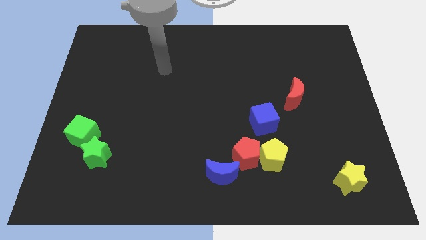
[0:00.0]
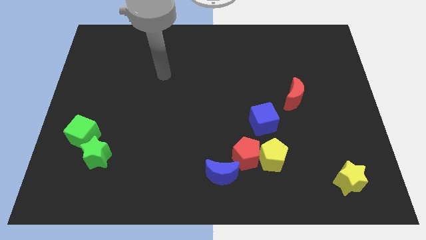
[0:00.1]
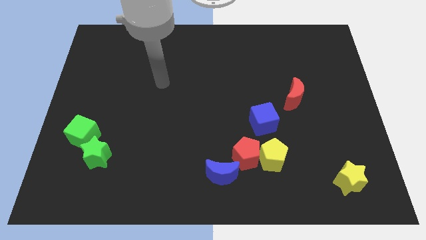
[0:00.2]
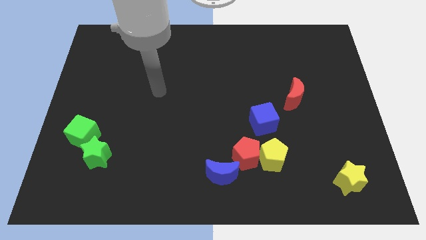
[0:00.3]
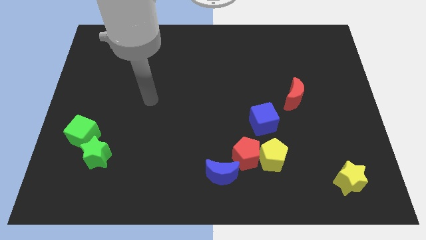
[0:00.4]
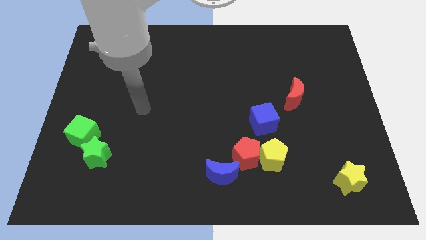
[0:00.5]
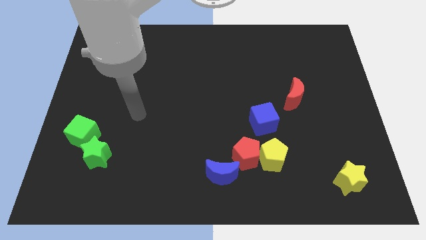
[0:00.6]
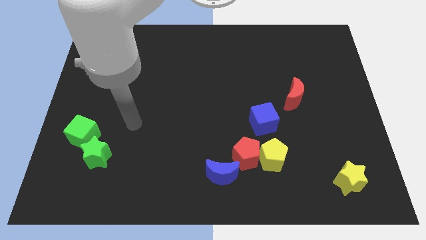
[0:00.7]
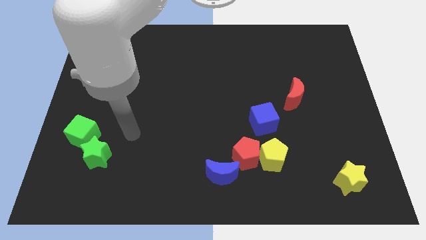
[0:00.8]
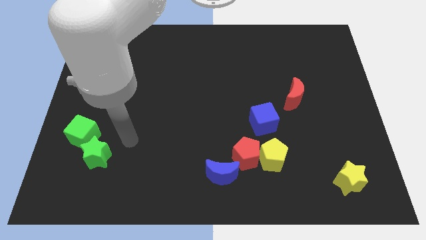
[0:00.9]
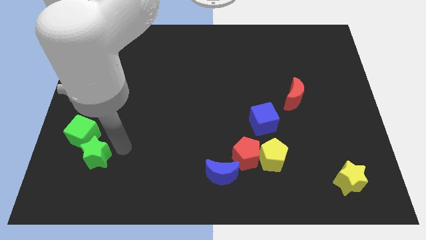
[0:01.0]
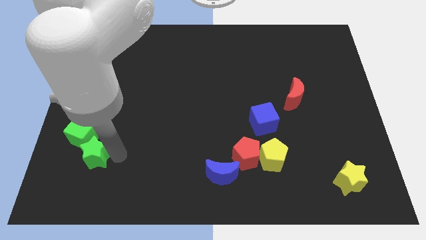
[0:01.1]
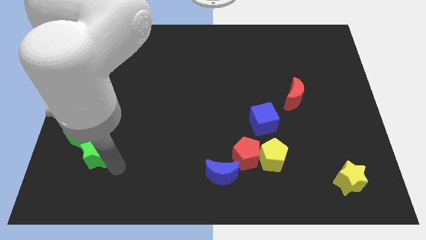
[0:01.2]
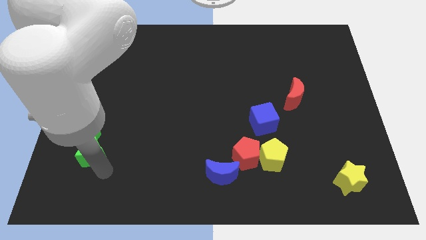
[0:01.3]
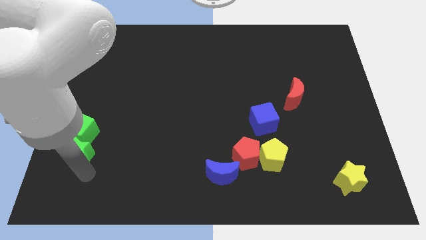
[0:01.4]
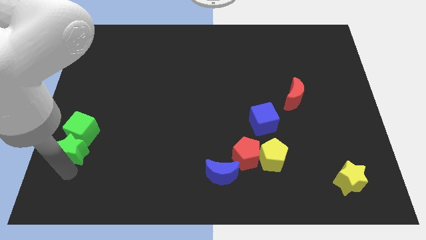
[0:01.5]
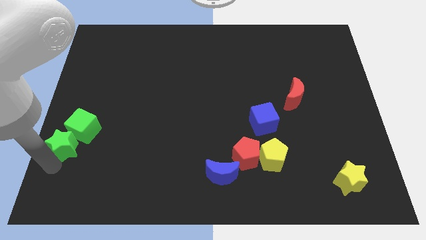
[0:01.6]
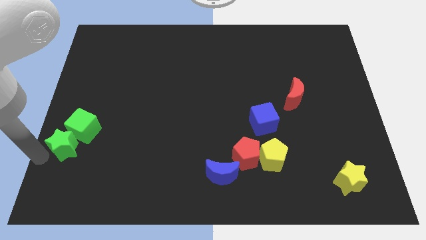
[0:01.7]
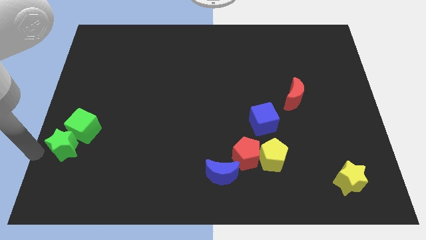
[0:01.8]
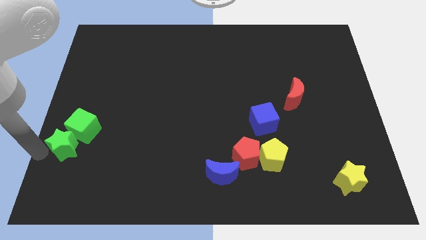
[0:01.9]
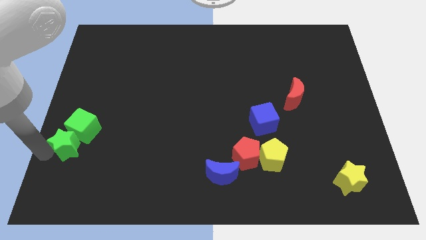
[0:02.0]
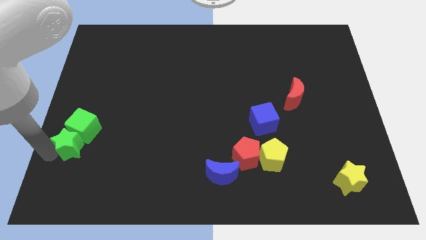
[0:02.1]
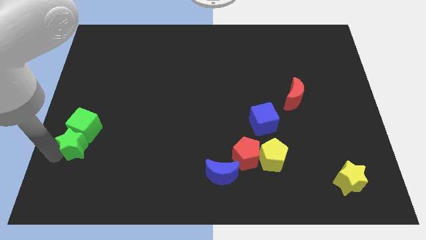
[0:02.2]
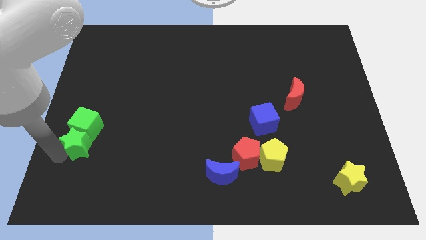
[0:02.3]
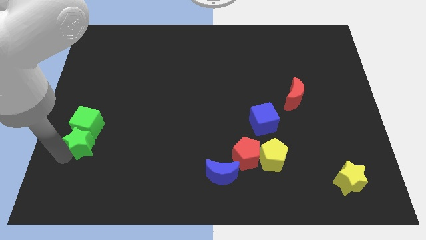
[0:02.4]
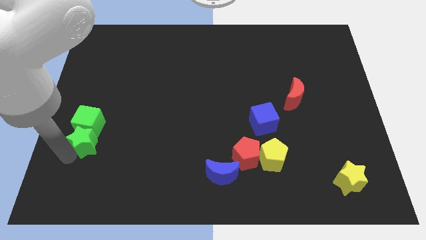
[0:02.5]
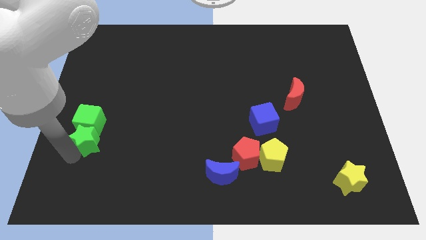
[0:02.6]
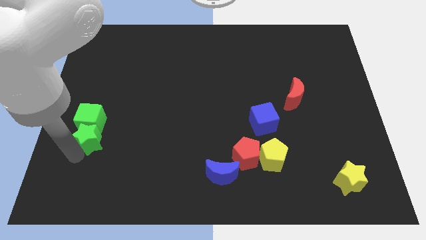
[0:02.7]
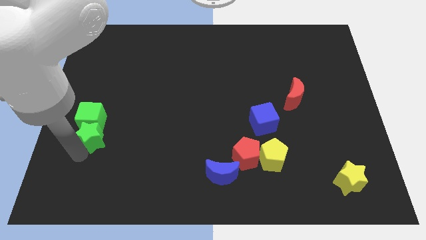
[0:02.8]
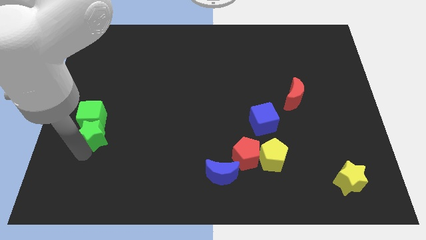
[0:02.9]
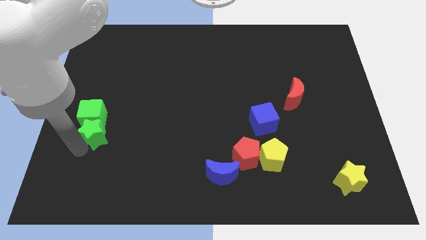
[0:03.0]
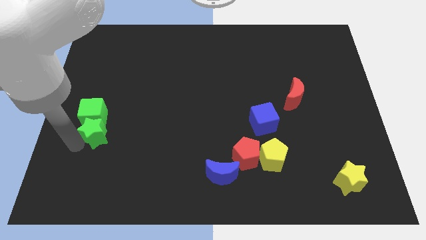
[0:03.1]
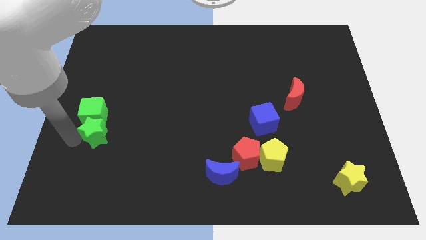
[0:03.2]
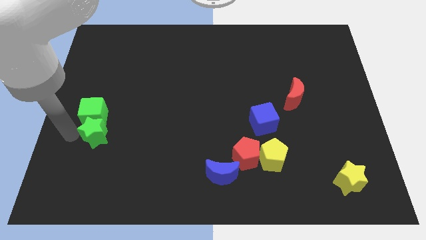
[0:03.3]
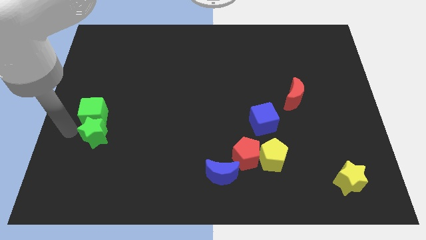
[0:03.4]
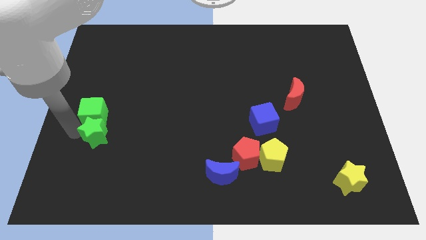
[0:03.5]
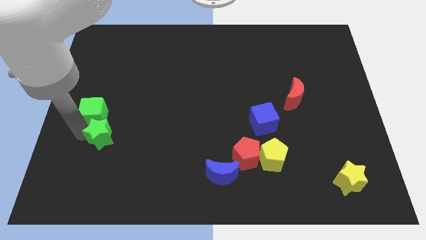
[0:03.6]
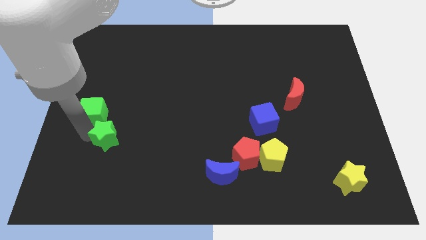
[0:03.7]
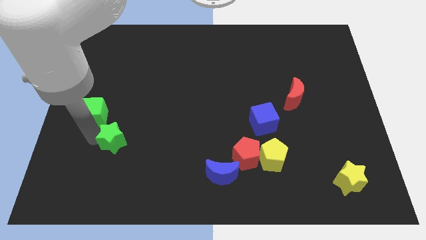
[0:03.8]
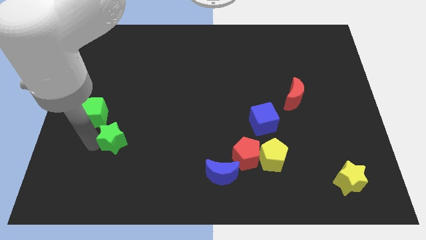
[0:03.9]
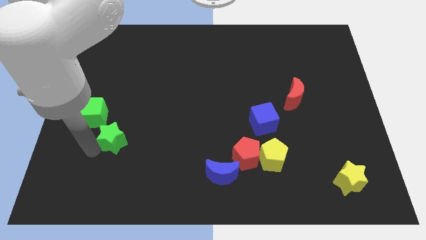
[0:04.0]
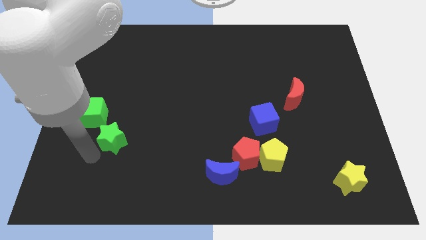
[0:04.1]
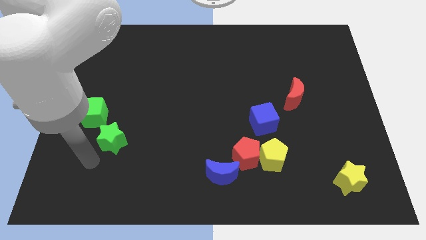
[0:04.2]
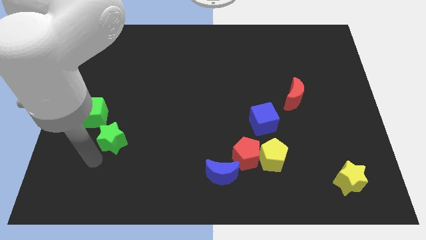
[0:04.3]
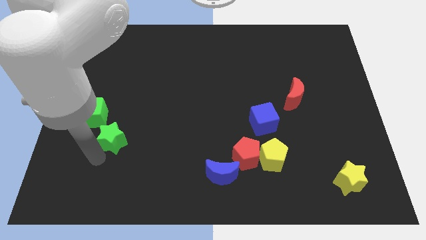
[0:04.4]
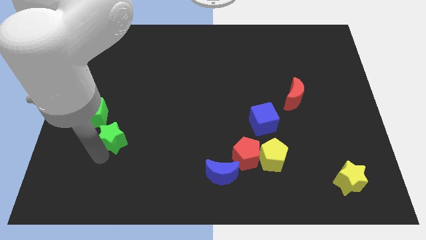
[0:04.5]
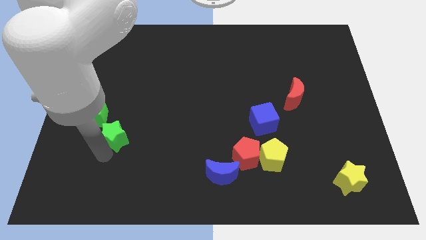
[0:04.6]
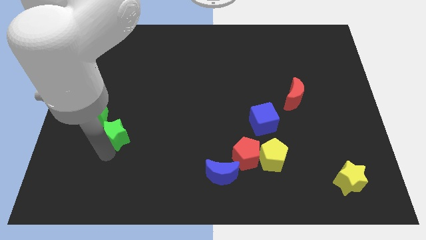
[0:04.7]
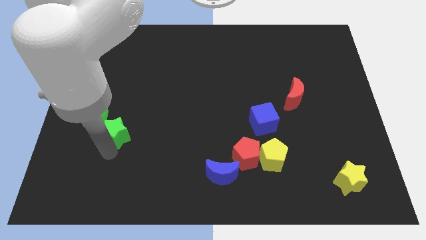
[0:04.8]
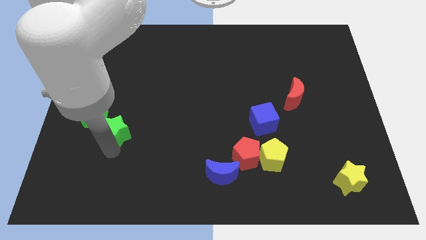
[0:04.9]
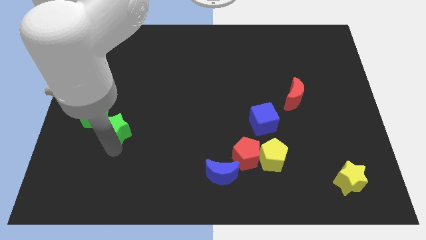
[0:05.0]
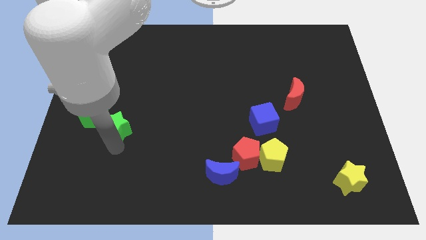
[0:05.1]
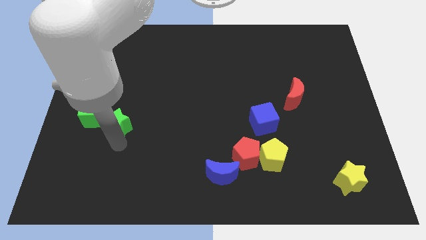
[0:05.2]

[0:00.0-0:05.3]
move the green star slightly upwards and right diagonally

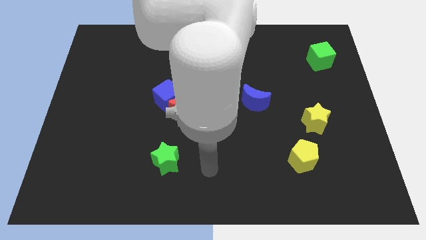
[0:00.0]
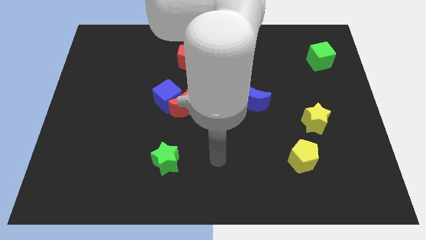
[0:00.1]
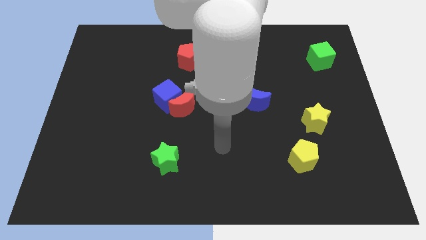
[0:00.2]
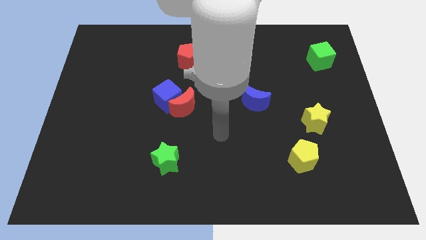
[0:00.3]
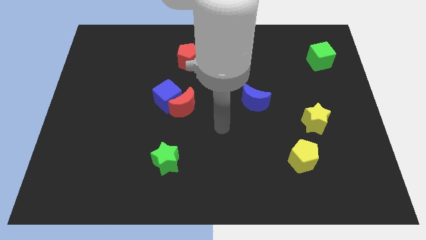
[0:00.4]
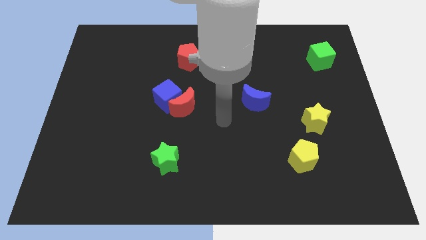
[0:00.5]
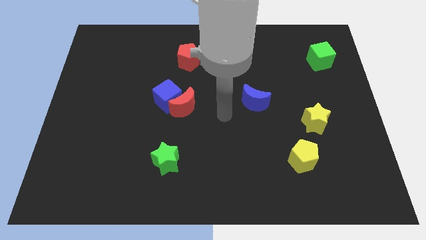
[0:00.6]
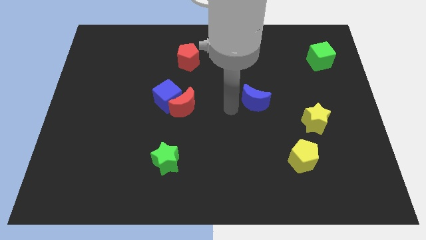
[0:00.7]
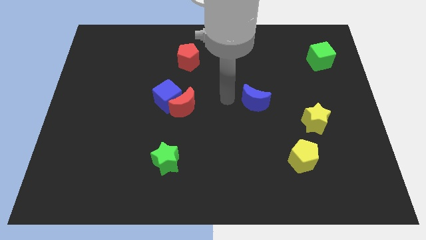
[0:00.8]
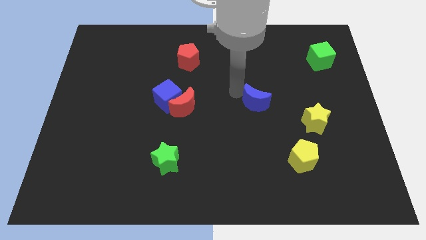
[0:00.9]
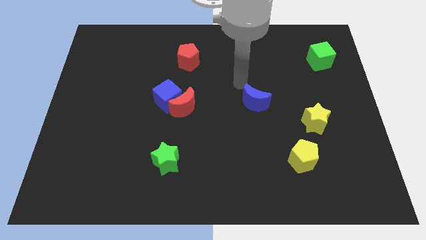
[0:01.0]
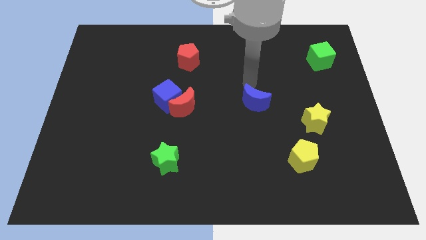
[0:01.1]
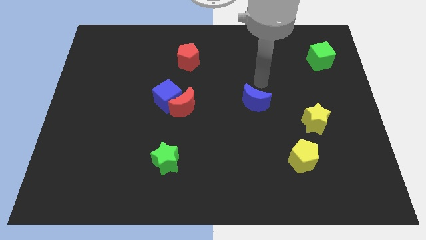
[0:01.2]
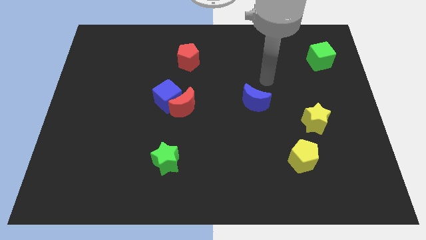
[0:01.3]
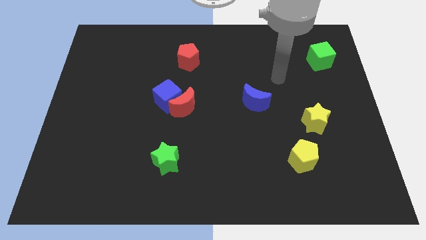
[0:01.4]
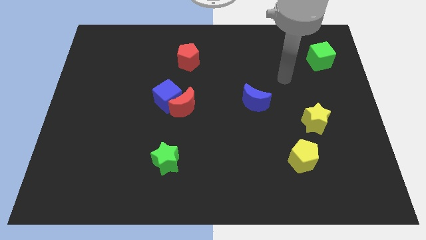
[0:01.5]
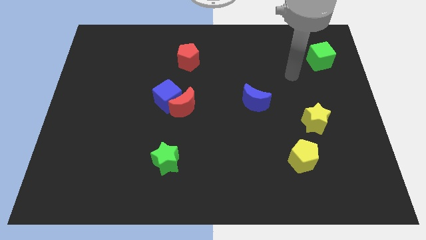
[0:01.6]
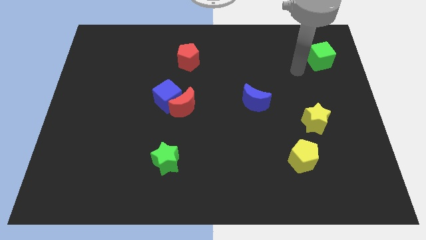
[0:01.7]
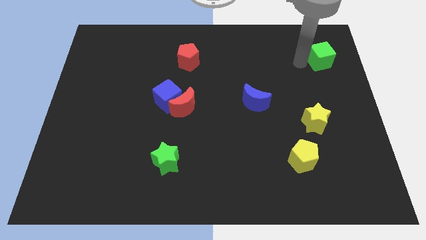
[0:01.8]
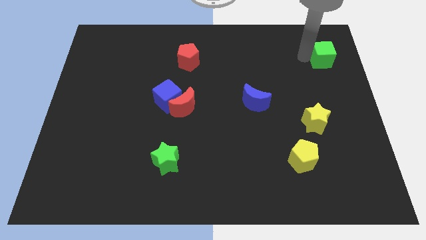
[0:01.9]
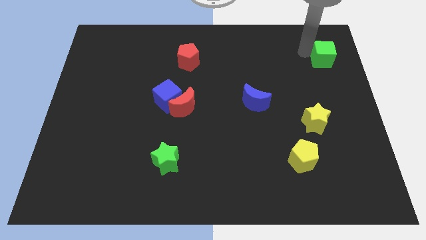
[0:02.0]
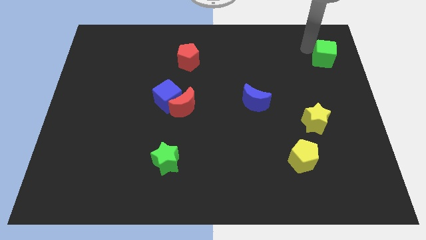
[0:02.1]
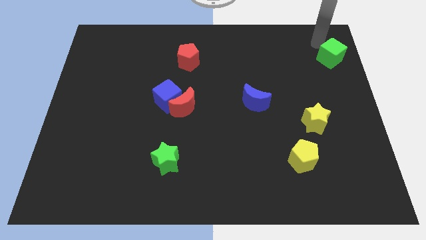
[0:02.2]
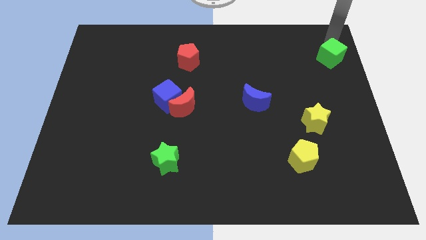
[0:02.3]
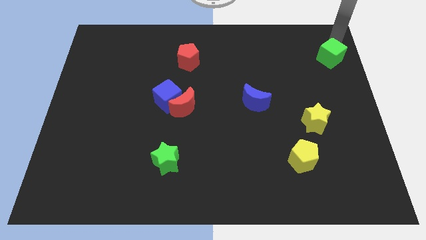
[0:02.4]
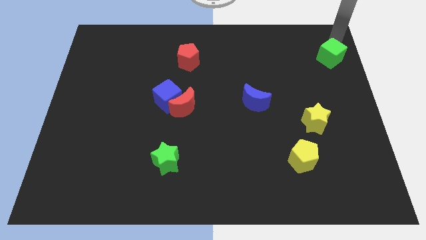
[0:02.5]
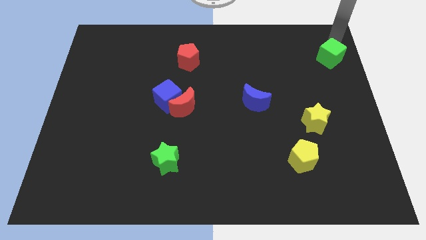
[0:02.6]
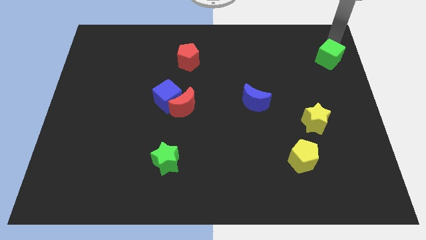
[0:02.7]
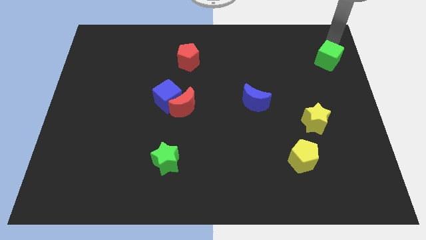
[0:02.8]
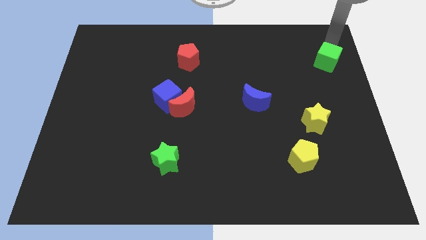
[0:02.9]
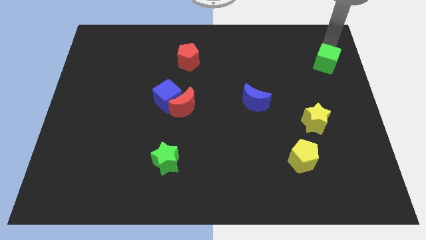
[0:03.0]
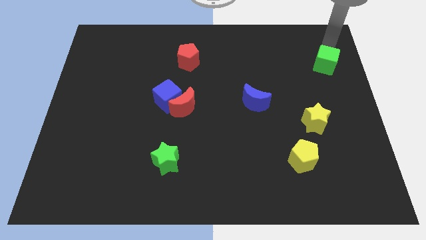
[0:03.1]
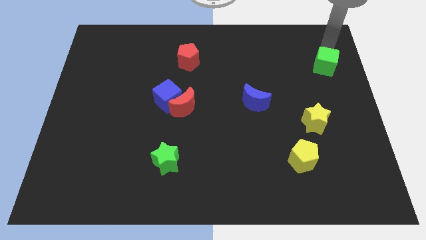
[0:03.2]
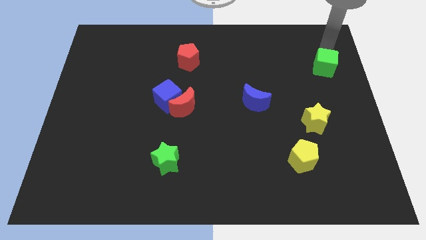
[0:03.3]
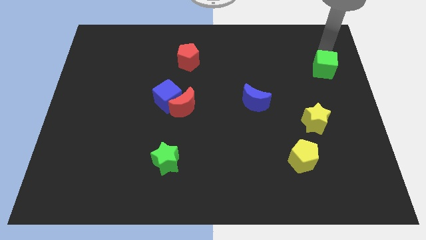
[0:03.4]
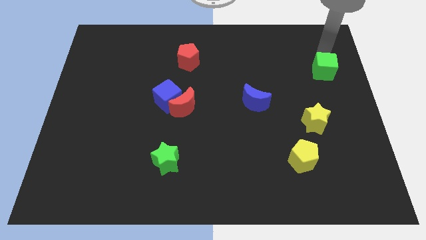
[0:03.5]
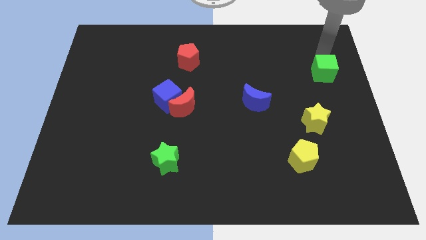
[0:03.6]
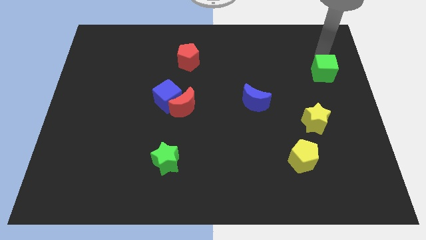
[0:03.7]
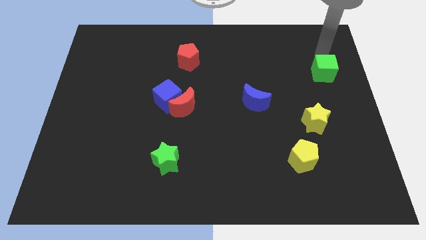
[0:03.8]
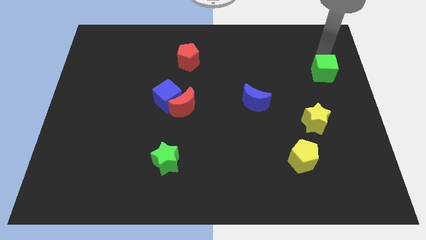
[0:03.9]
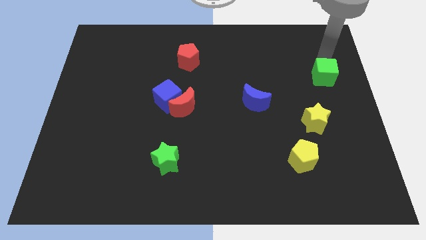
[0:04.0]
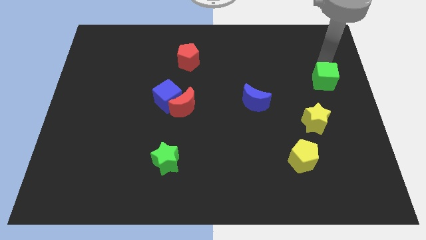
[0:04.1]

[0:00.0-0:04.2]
slide the green cube slightly downwards
